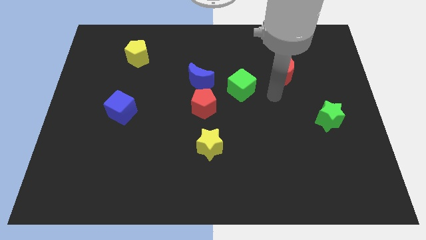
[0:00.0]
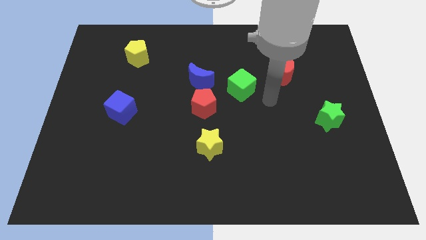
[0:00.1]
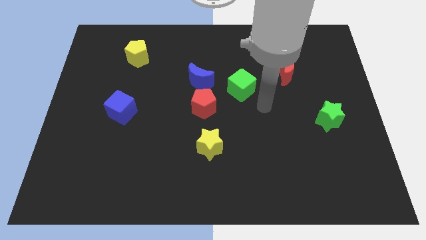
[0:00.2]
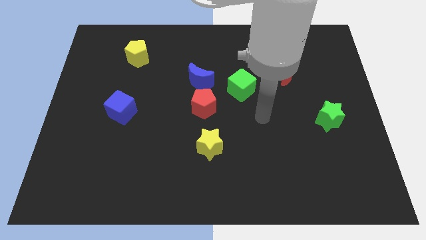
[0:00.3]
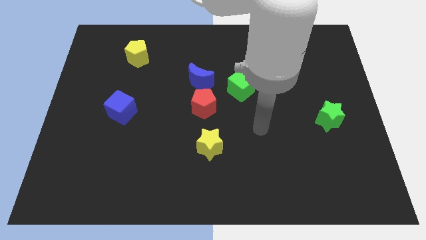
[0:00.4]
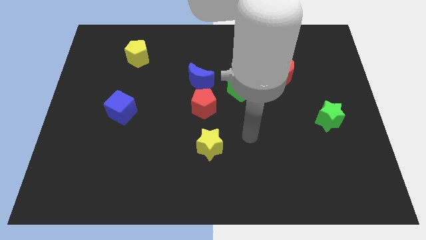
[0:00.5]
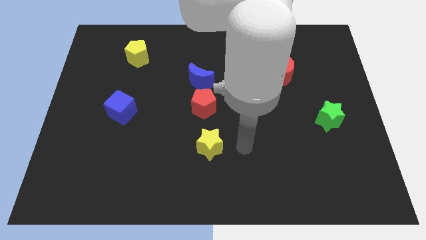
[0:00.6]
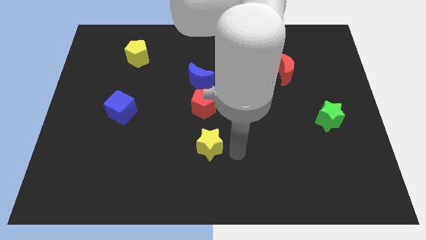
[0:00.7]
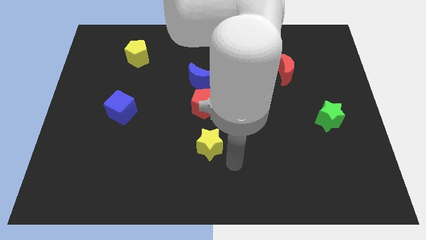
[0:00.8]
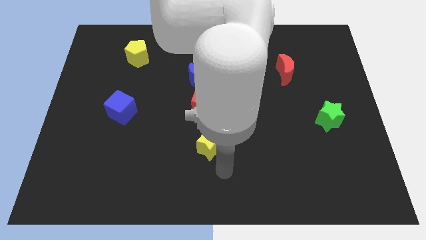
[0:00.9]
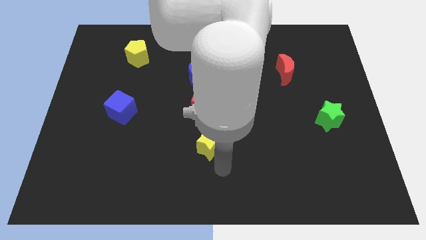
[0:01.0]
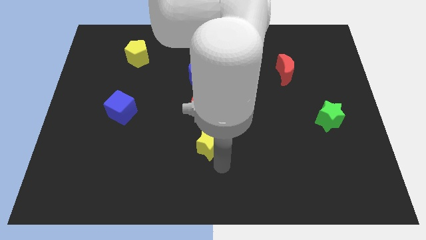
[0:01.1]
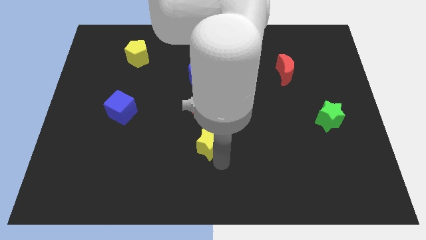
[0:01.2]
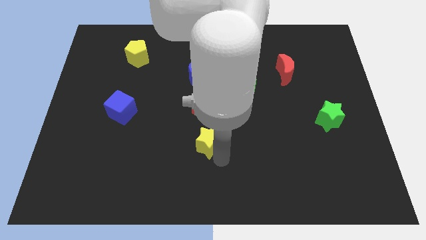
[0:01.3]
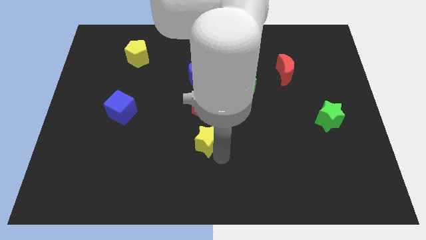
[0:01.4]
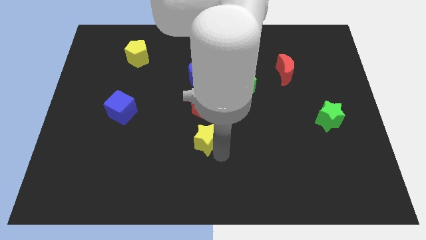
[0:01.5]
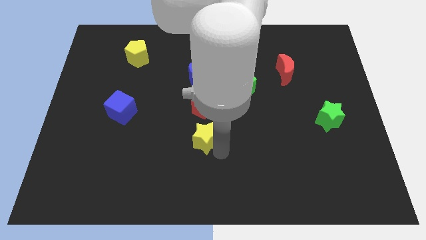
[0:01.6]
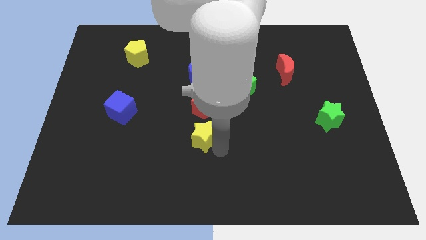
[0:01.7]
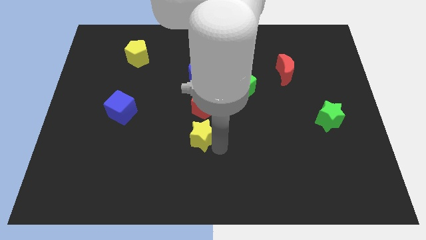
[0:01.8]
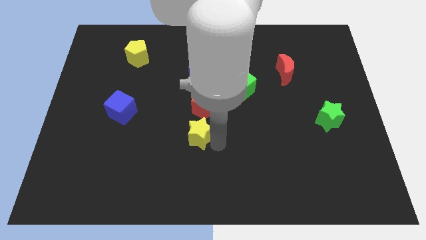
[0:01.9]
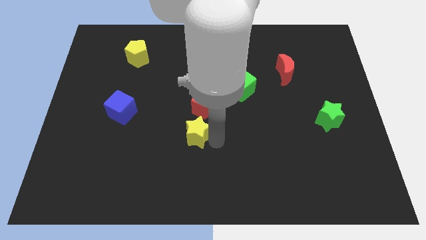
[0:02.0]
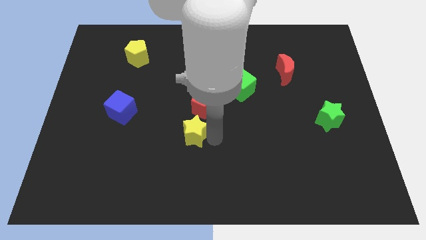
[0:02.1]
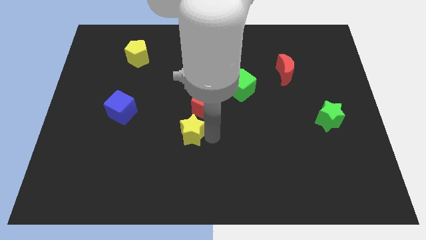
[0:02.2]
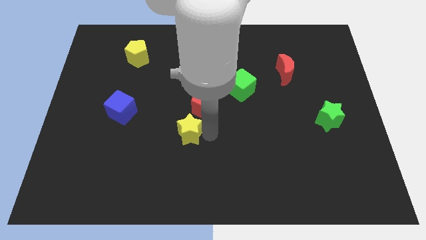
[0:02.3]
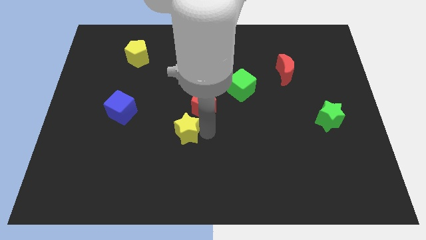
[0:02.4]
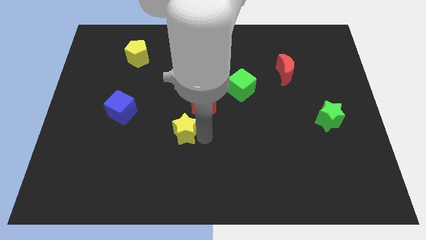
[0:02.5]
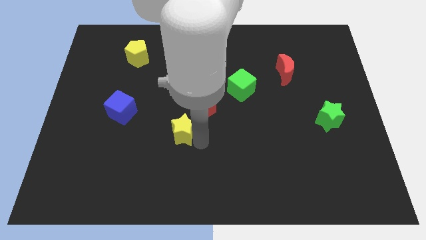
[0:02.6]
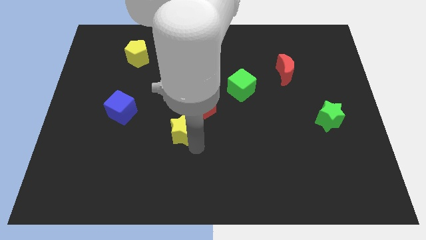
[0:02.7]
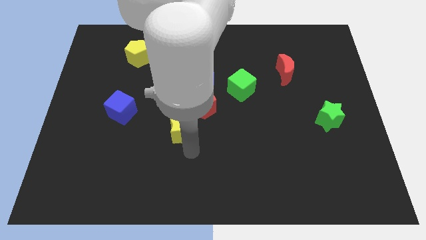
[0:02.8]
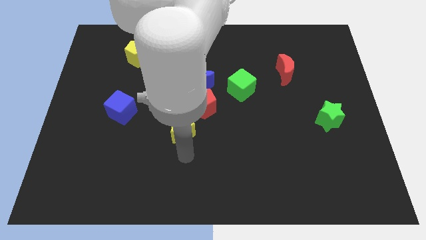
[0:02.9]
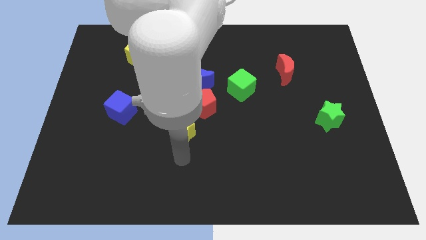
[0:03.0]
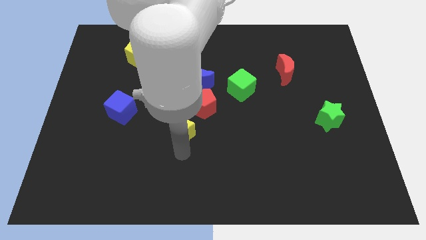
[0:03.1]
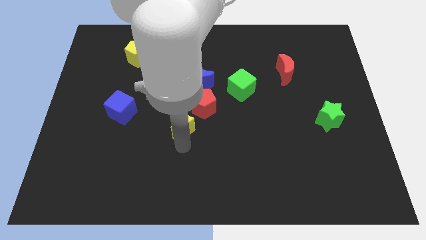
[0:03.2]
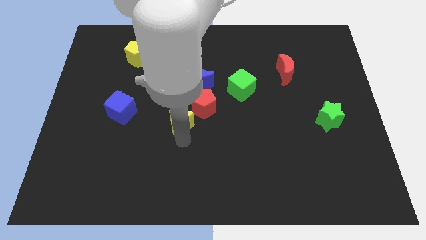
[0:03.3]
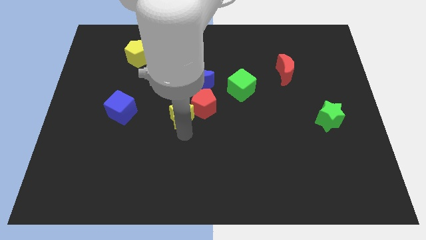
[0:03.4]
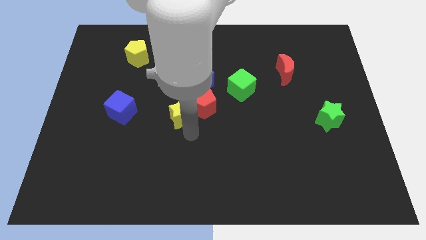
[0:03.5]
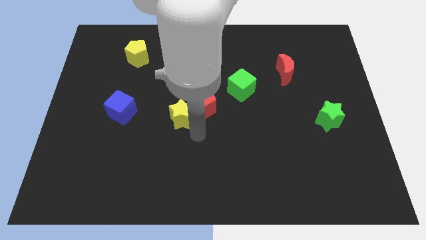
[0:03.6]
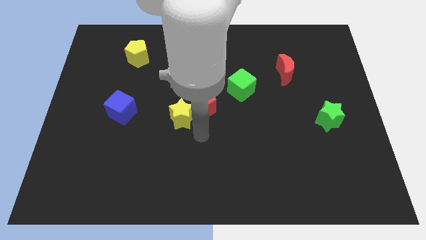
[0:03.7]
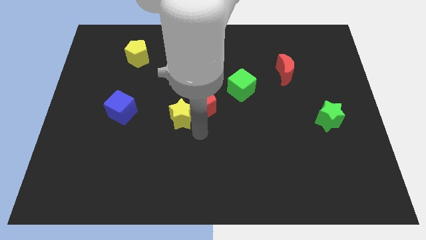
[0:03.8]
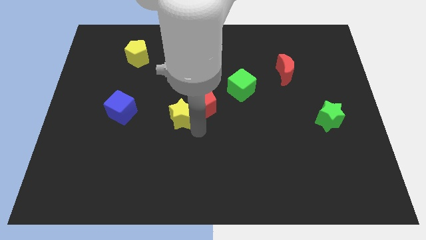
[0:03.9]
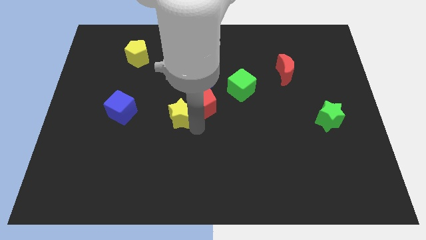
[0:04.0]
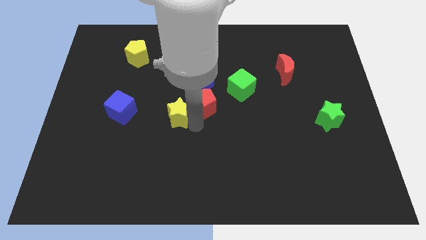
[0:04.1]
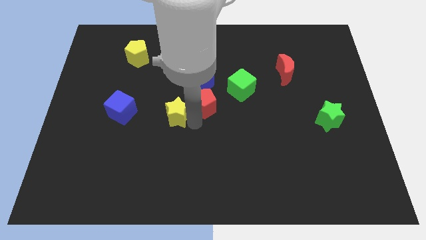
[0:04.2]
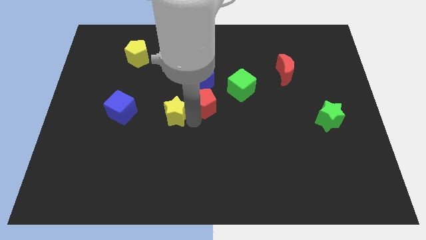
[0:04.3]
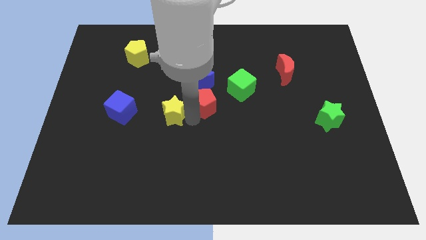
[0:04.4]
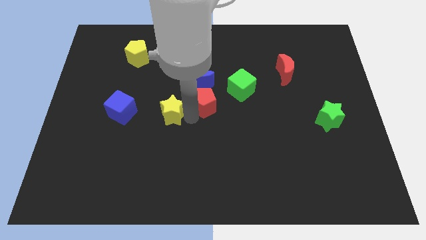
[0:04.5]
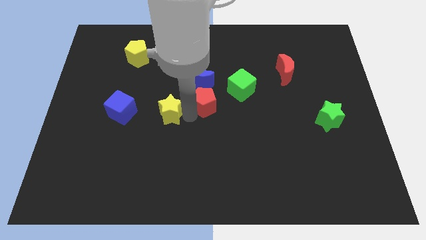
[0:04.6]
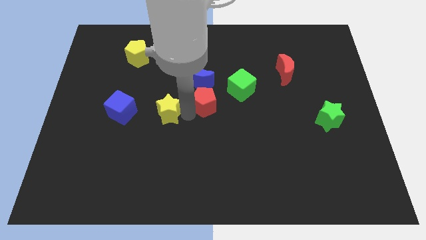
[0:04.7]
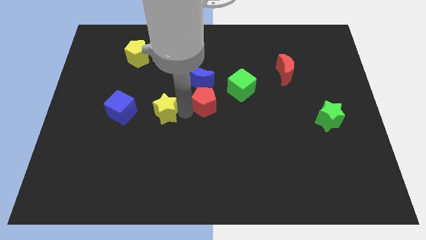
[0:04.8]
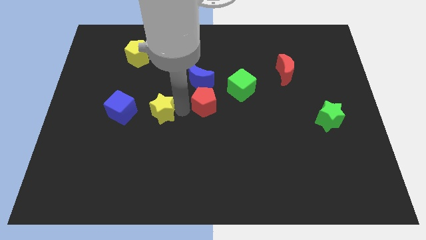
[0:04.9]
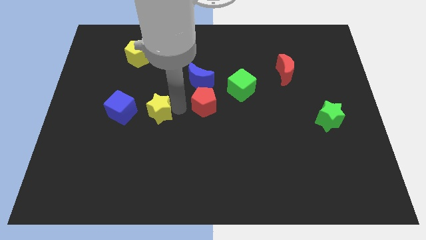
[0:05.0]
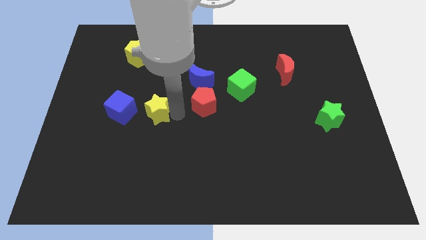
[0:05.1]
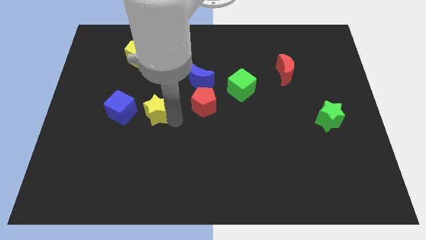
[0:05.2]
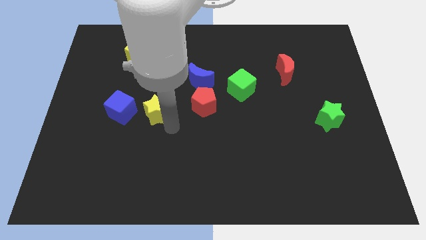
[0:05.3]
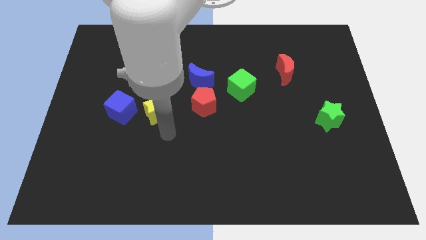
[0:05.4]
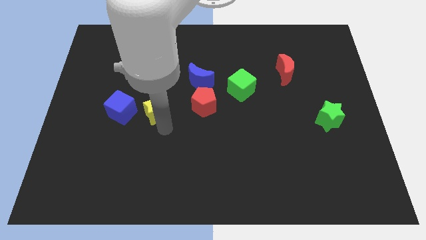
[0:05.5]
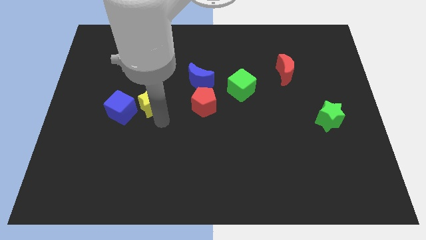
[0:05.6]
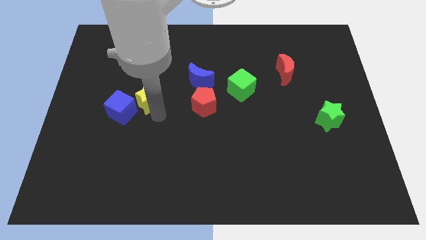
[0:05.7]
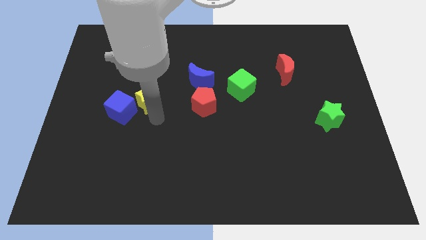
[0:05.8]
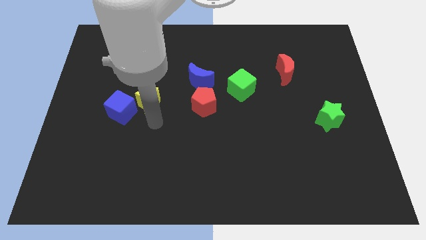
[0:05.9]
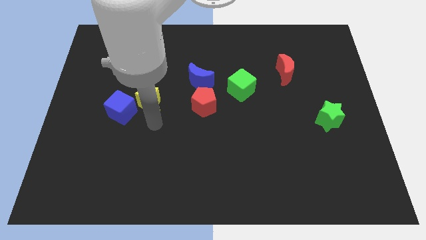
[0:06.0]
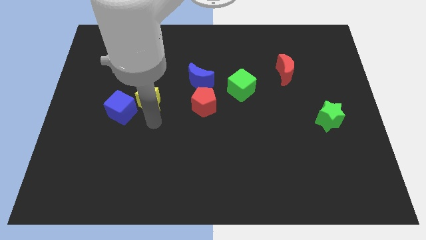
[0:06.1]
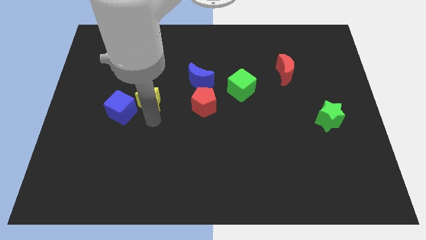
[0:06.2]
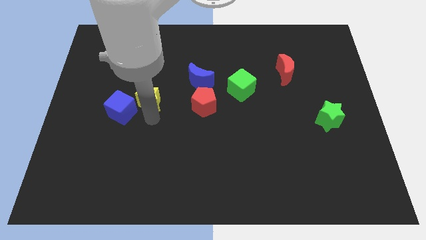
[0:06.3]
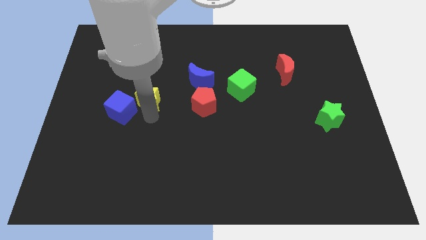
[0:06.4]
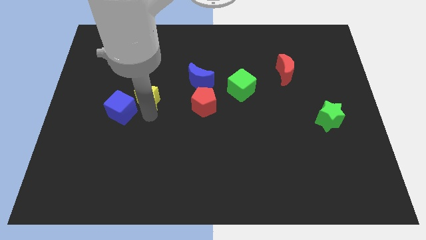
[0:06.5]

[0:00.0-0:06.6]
slide the yellow star upwards and to the left

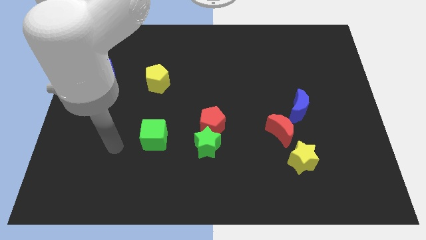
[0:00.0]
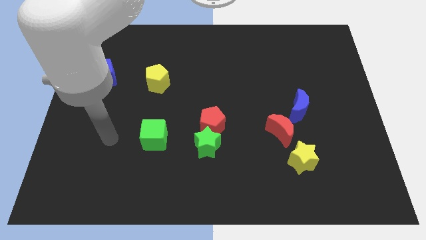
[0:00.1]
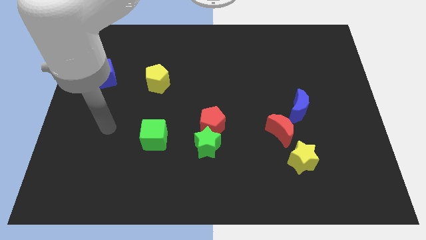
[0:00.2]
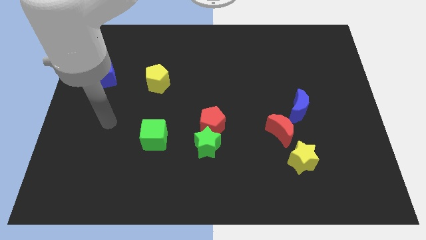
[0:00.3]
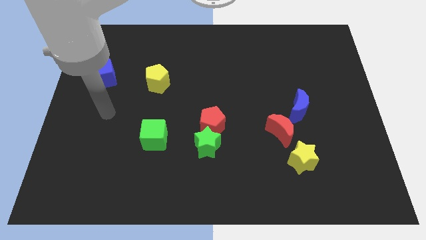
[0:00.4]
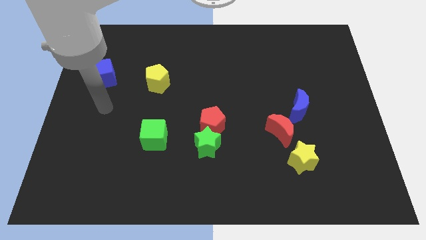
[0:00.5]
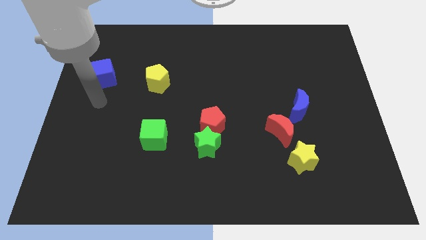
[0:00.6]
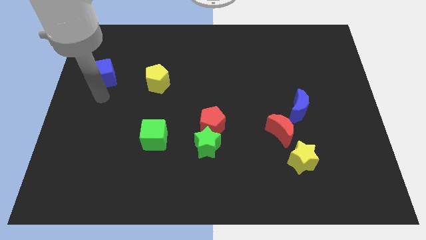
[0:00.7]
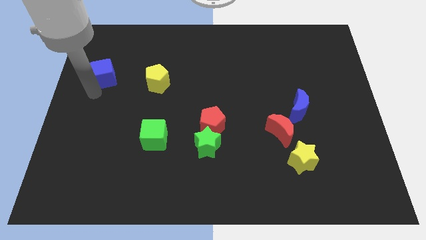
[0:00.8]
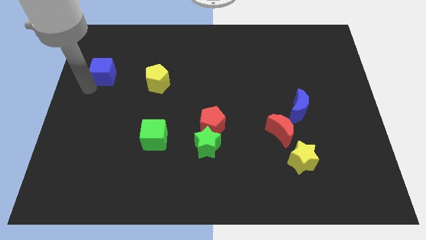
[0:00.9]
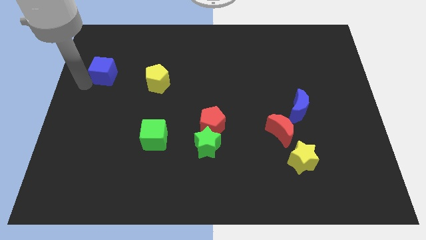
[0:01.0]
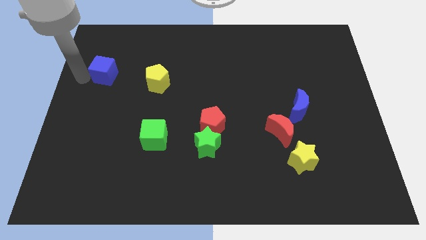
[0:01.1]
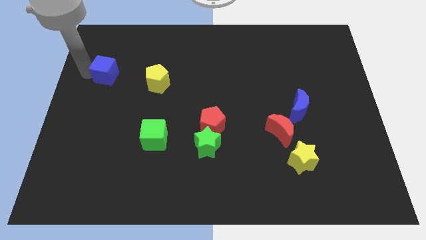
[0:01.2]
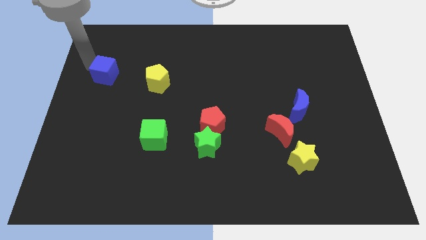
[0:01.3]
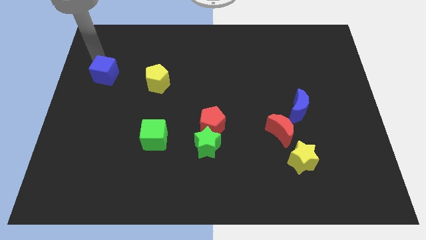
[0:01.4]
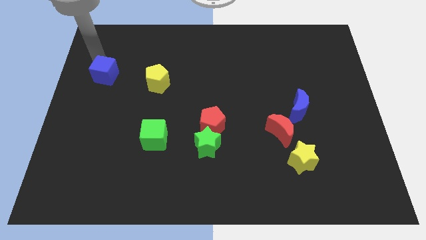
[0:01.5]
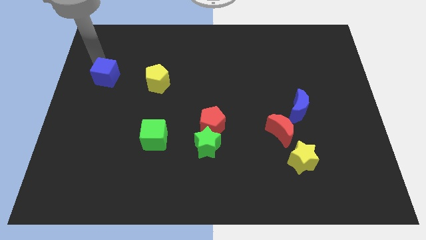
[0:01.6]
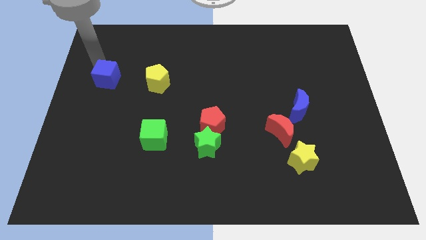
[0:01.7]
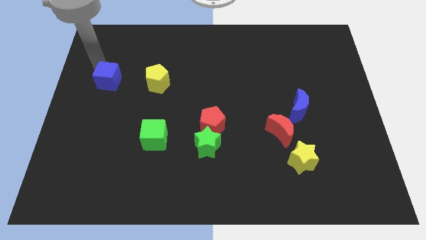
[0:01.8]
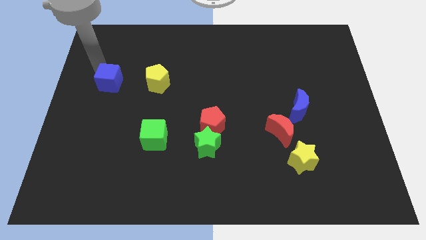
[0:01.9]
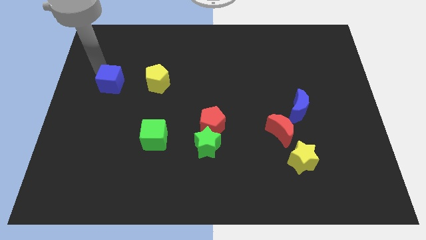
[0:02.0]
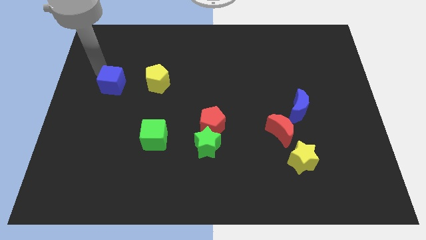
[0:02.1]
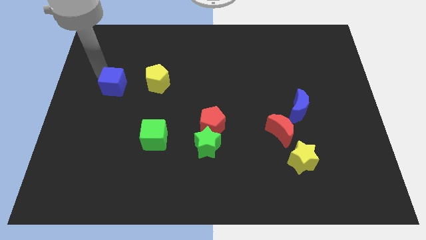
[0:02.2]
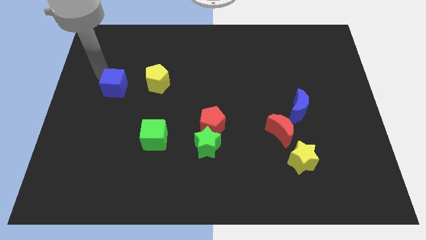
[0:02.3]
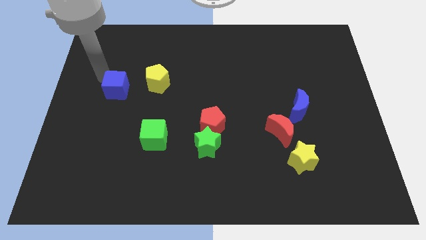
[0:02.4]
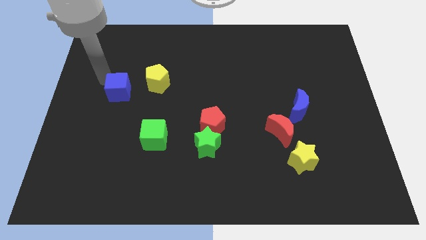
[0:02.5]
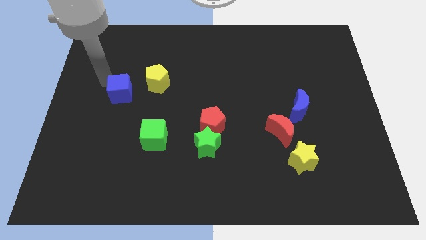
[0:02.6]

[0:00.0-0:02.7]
push the blue cube a bit diagonally downwards and right
